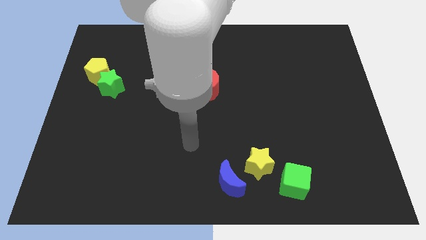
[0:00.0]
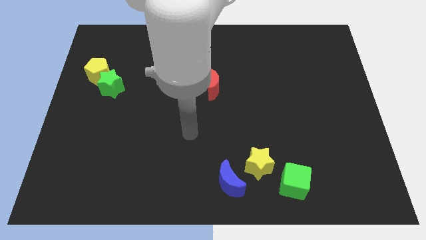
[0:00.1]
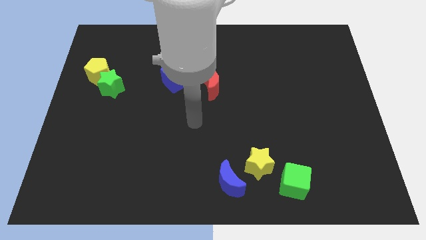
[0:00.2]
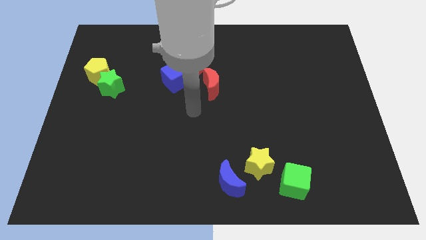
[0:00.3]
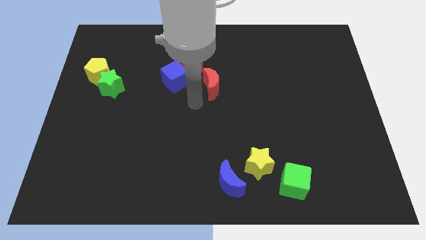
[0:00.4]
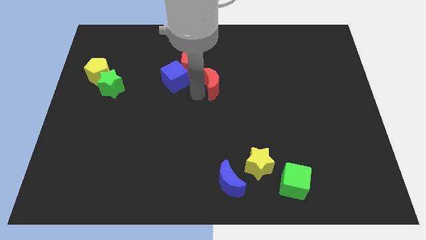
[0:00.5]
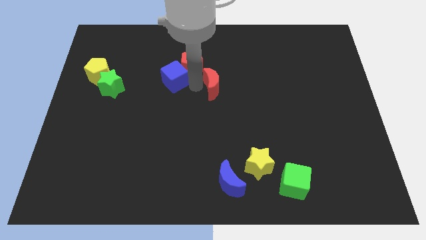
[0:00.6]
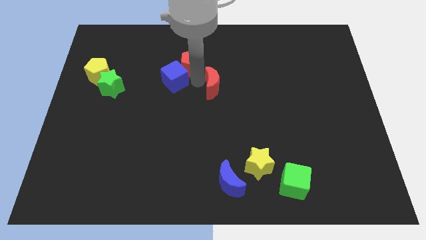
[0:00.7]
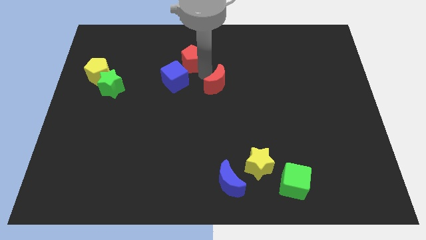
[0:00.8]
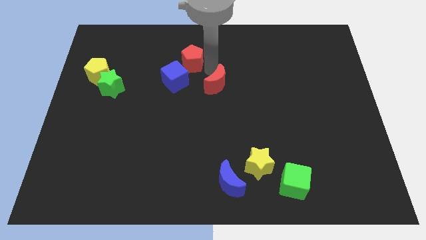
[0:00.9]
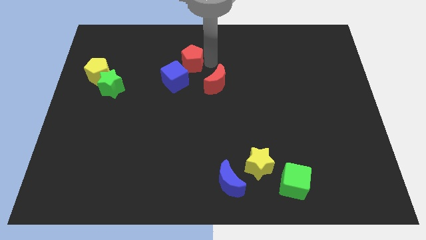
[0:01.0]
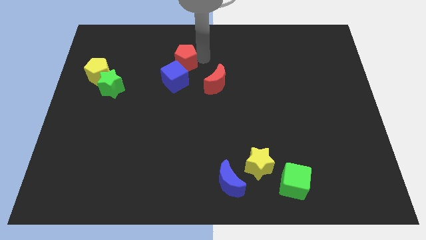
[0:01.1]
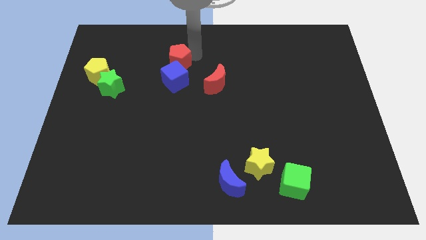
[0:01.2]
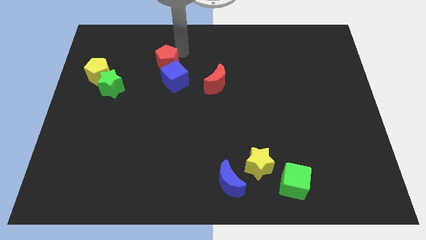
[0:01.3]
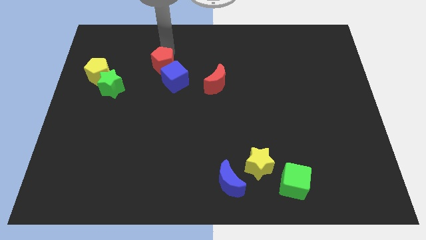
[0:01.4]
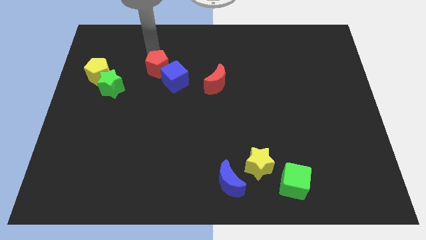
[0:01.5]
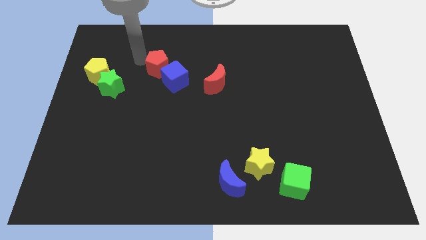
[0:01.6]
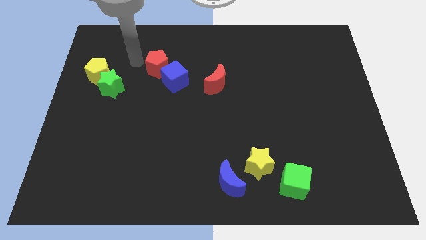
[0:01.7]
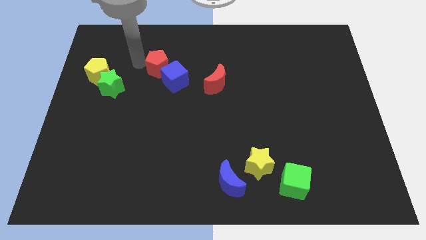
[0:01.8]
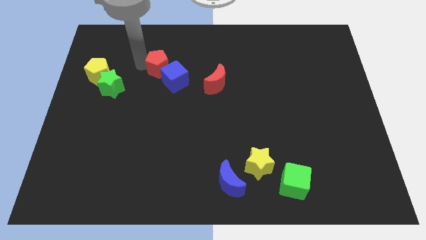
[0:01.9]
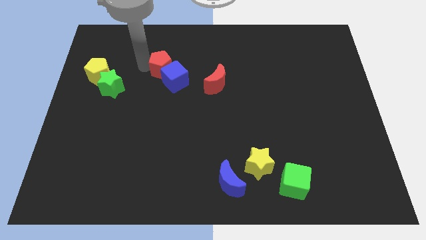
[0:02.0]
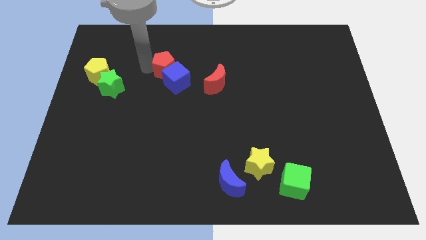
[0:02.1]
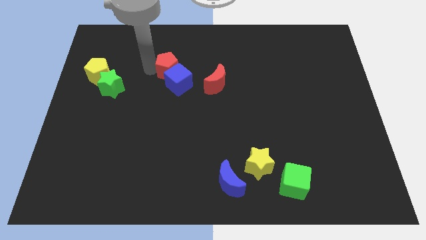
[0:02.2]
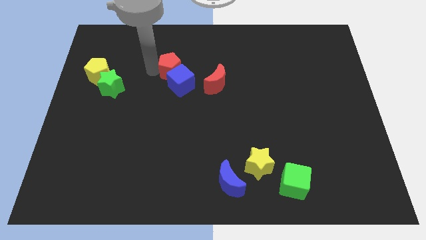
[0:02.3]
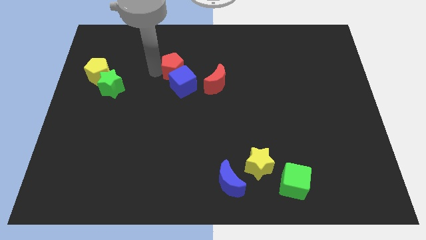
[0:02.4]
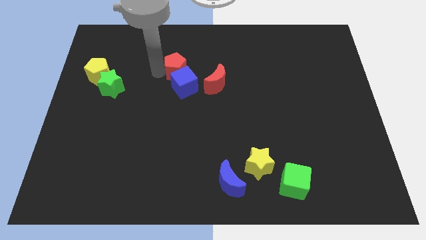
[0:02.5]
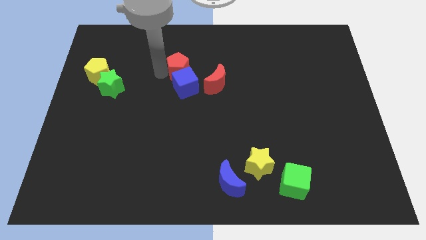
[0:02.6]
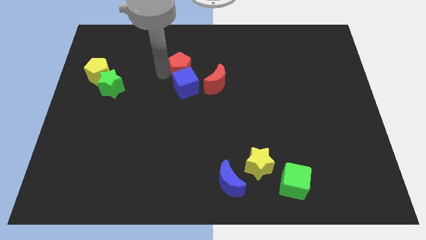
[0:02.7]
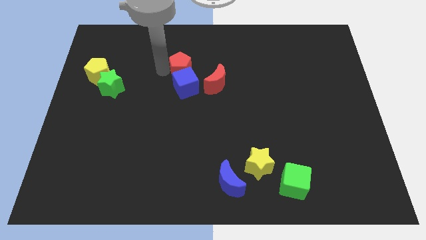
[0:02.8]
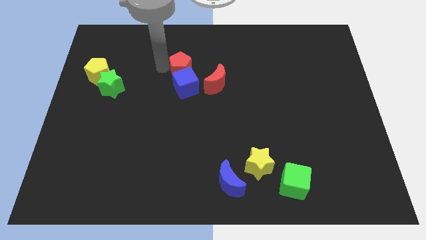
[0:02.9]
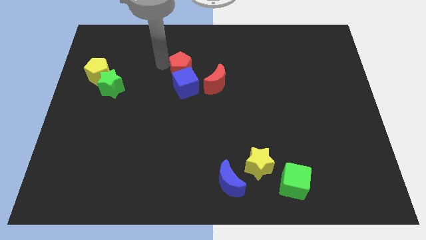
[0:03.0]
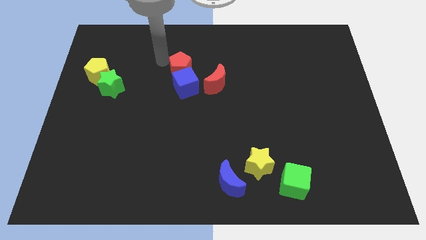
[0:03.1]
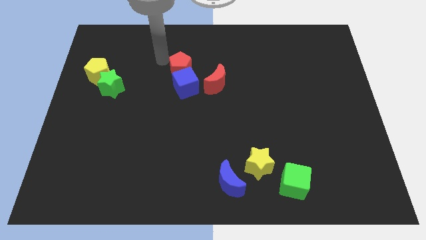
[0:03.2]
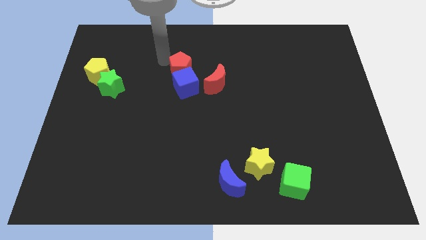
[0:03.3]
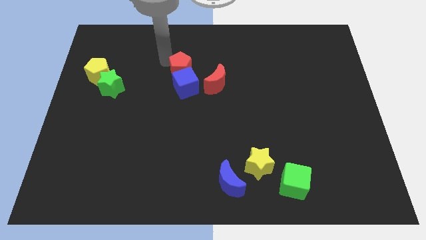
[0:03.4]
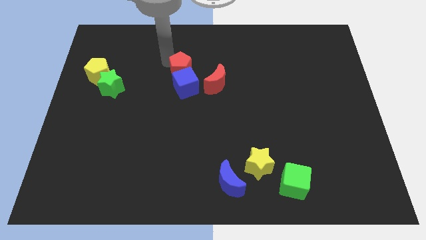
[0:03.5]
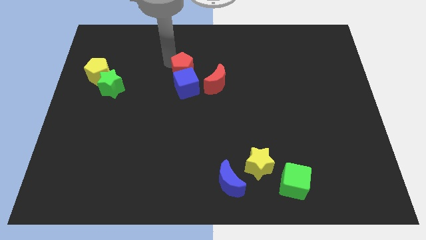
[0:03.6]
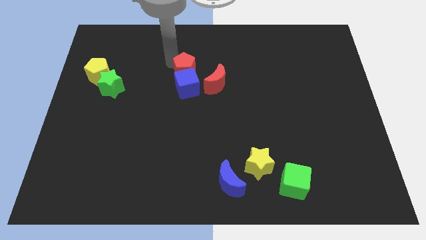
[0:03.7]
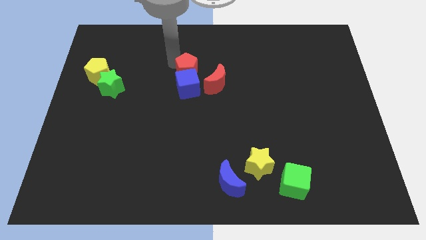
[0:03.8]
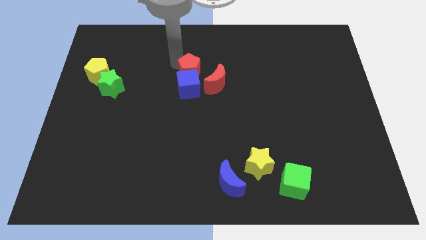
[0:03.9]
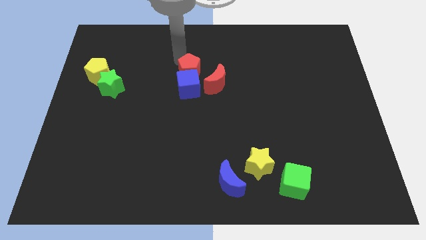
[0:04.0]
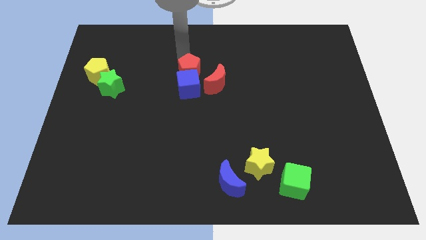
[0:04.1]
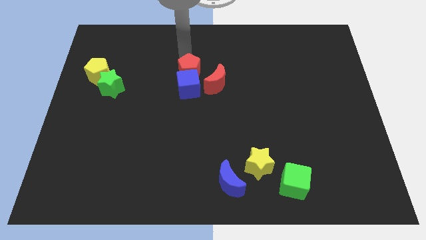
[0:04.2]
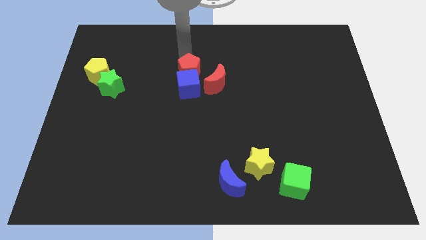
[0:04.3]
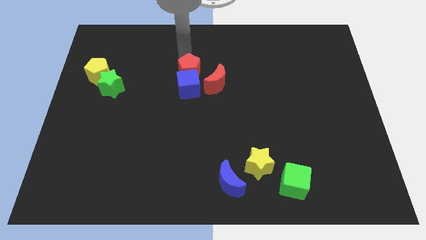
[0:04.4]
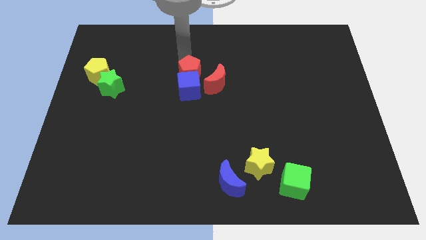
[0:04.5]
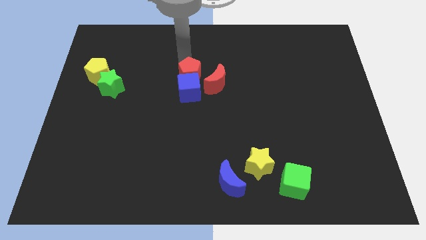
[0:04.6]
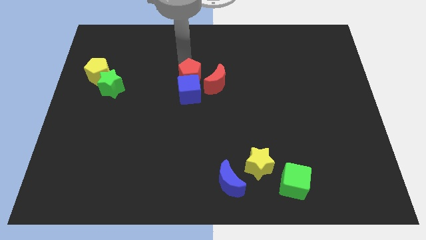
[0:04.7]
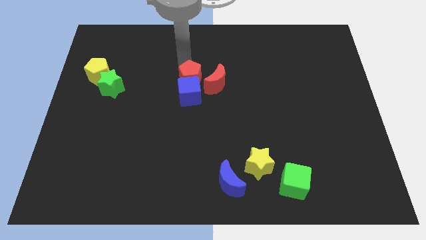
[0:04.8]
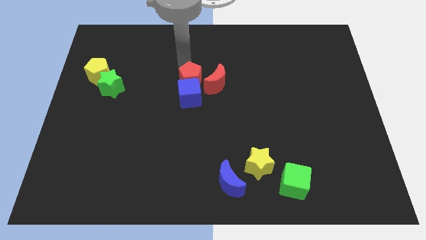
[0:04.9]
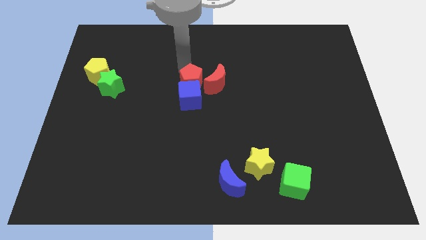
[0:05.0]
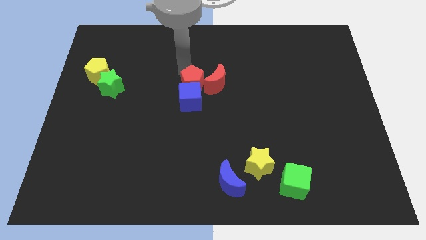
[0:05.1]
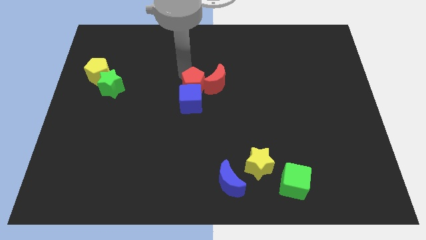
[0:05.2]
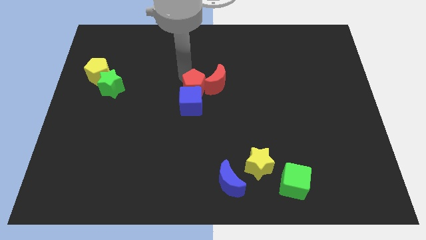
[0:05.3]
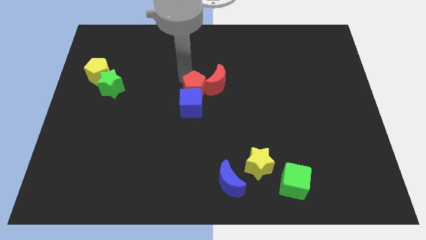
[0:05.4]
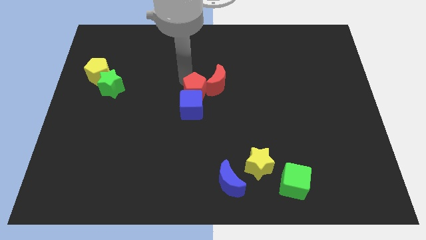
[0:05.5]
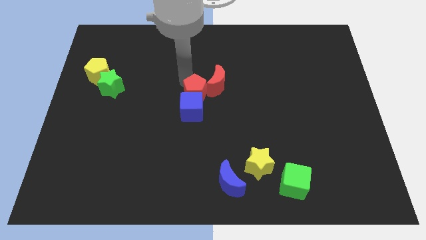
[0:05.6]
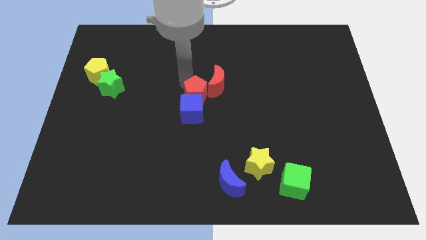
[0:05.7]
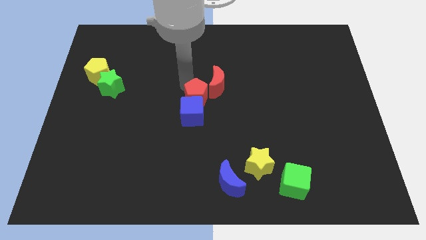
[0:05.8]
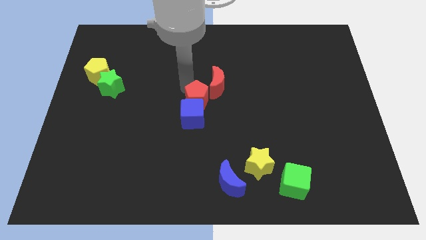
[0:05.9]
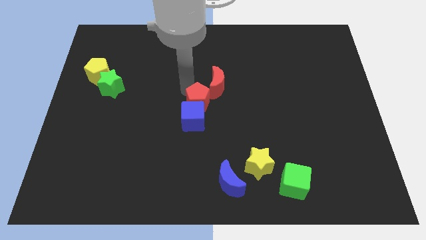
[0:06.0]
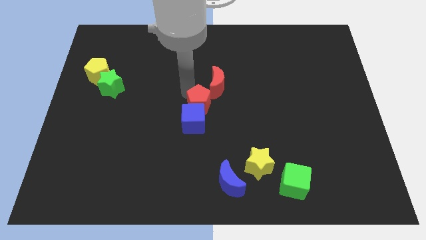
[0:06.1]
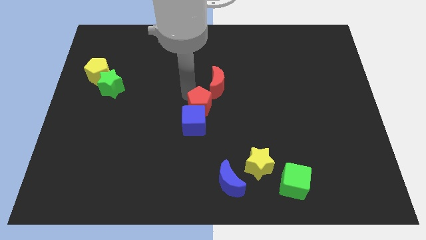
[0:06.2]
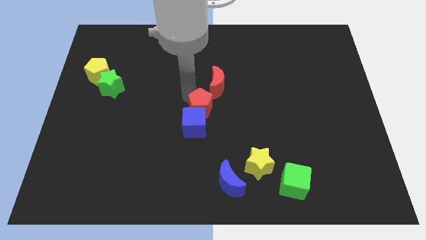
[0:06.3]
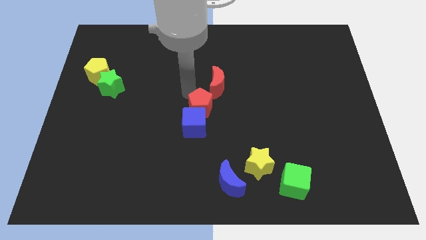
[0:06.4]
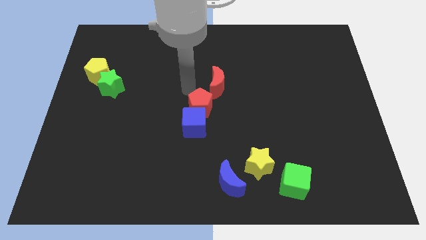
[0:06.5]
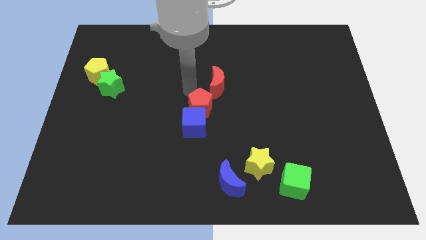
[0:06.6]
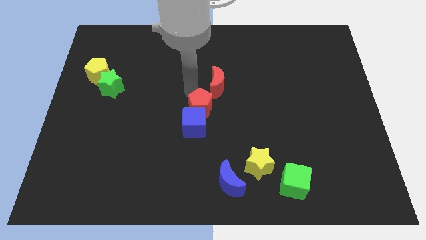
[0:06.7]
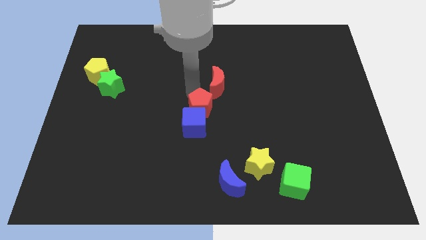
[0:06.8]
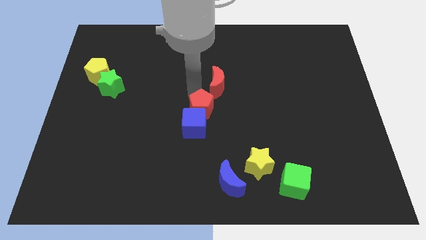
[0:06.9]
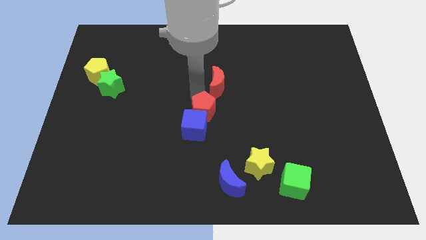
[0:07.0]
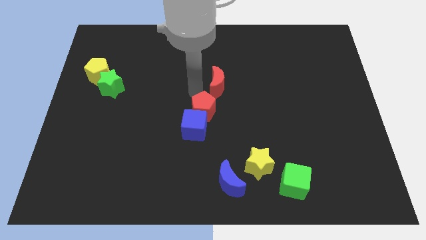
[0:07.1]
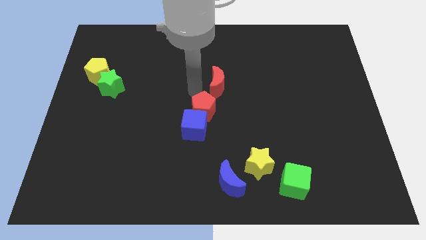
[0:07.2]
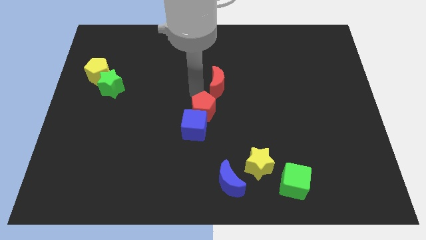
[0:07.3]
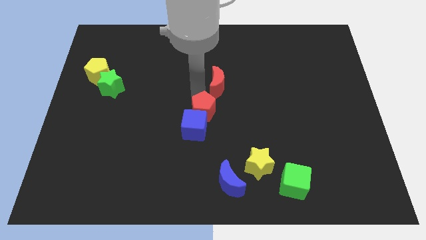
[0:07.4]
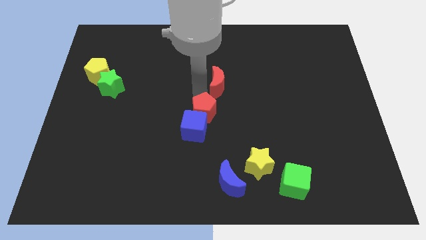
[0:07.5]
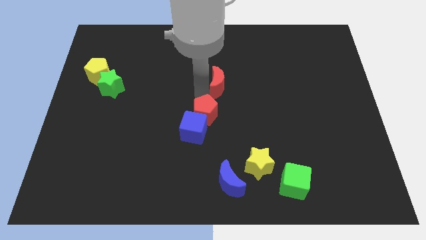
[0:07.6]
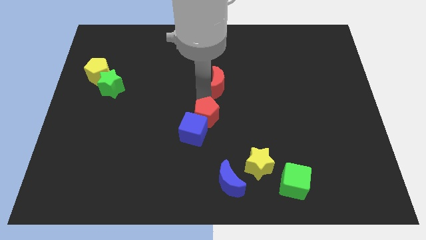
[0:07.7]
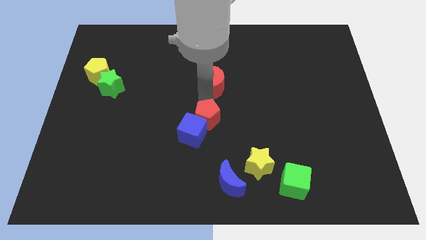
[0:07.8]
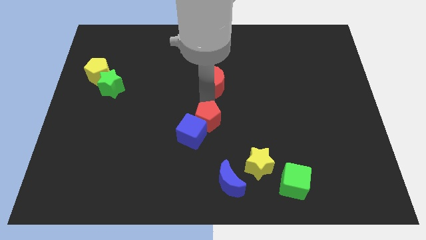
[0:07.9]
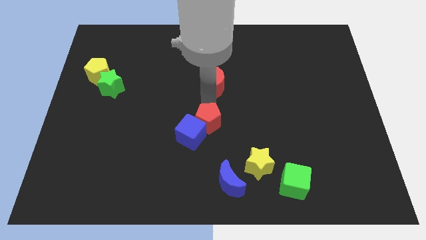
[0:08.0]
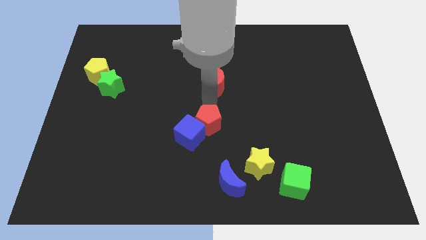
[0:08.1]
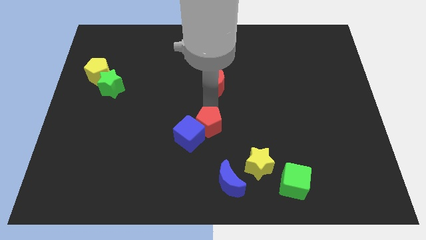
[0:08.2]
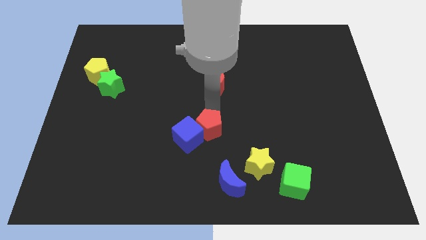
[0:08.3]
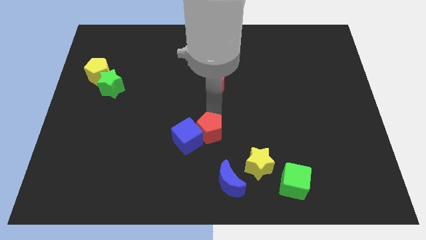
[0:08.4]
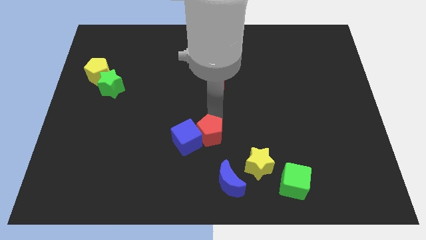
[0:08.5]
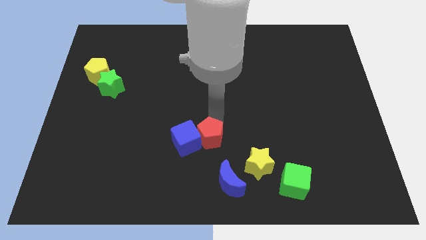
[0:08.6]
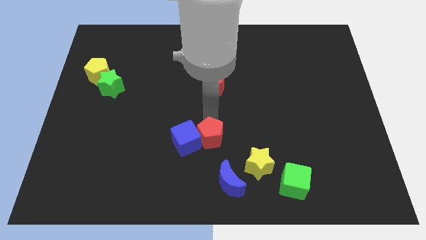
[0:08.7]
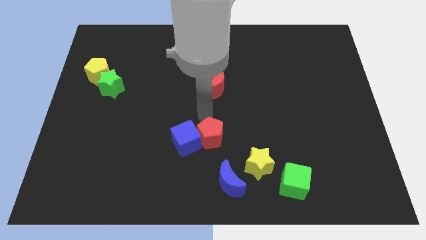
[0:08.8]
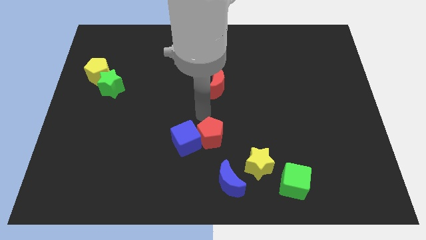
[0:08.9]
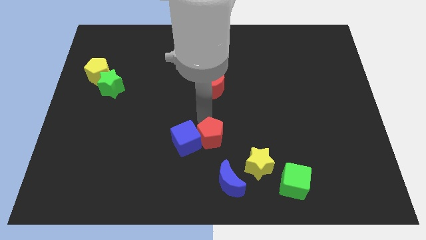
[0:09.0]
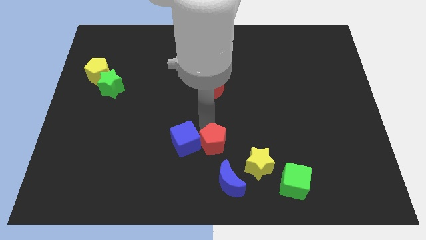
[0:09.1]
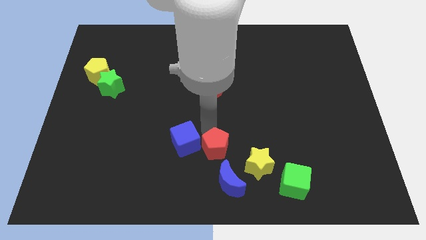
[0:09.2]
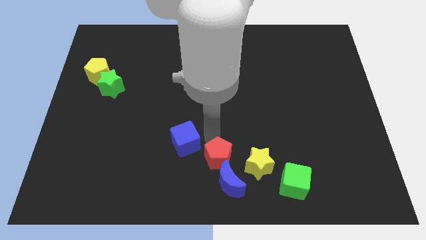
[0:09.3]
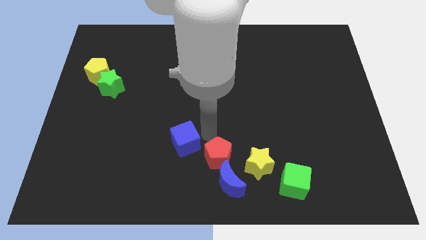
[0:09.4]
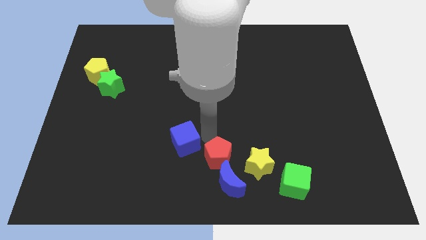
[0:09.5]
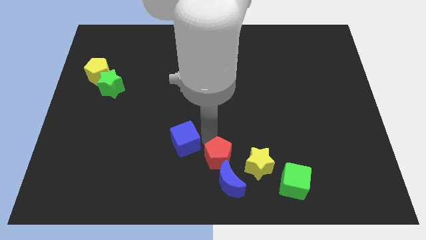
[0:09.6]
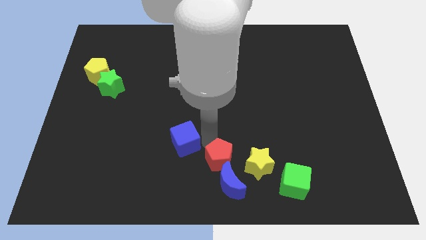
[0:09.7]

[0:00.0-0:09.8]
move the red pentagon close to the blue moon
